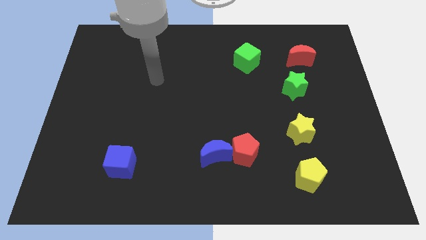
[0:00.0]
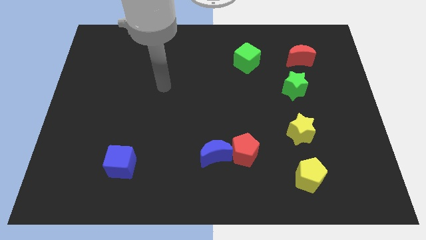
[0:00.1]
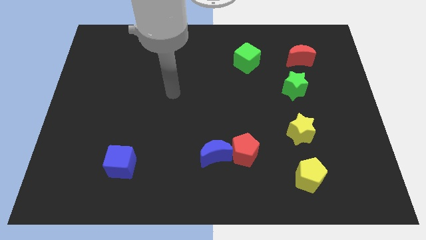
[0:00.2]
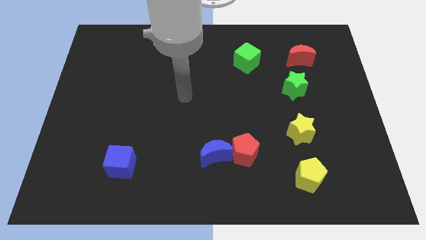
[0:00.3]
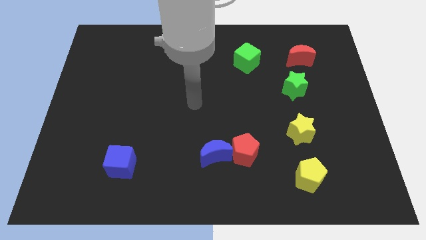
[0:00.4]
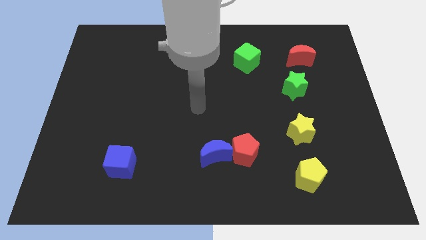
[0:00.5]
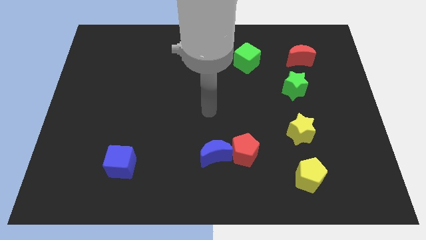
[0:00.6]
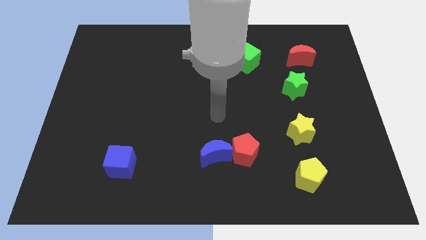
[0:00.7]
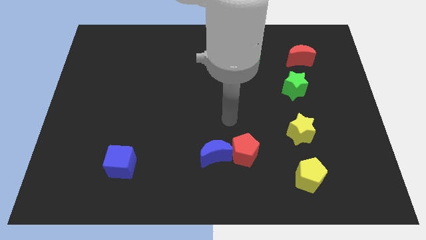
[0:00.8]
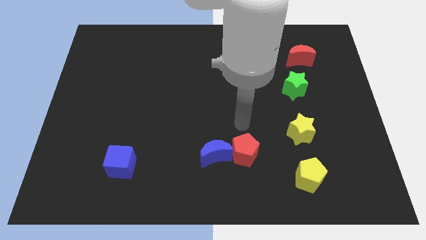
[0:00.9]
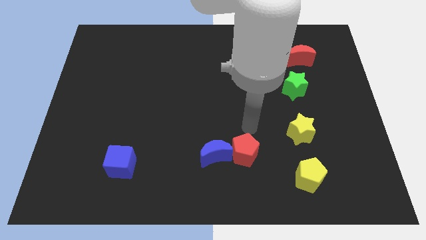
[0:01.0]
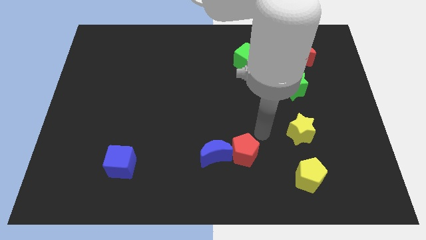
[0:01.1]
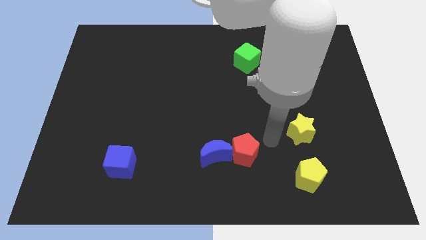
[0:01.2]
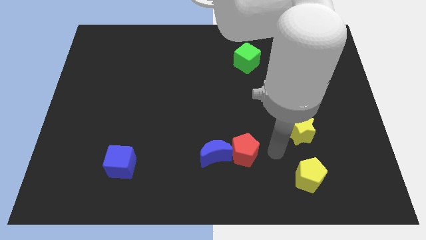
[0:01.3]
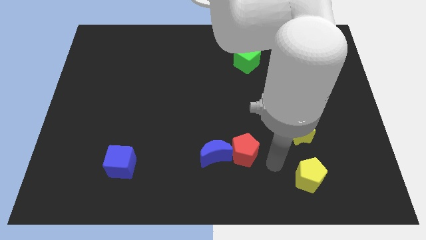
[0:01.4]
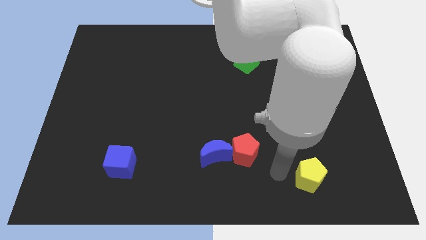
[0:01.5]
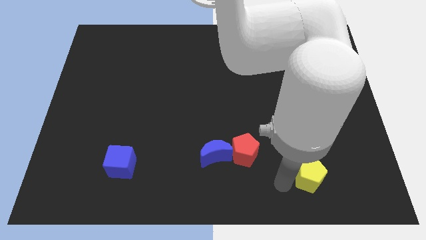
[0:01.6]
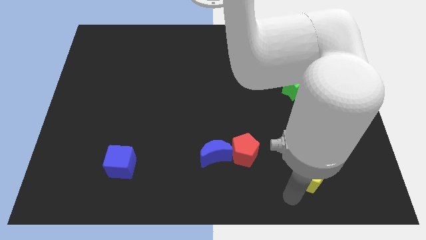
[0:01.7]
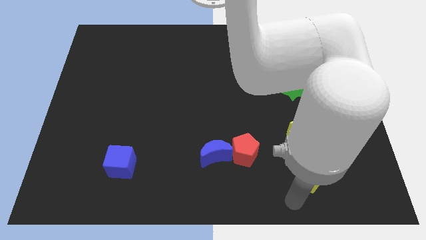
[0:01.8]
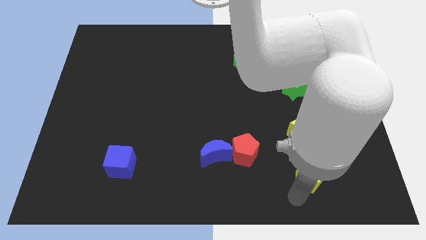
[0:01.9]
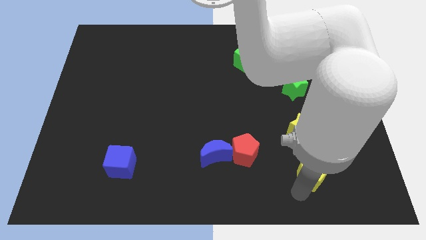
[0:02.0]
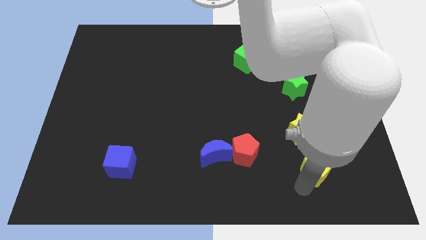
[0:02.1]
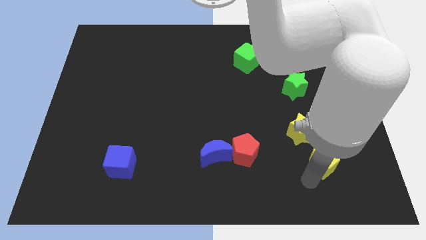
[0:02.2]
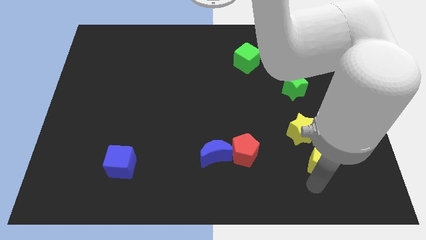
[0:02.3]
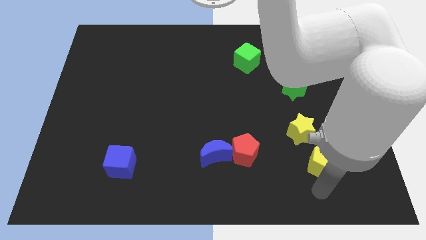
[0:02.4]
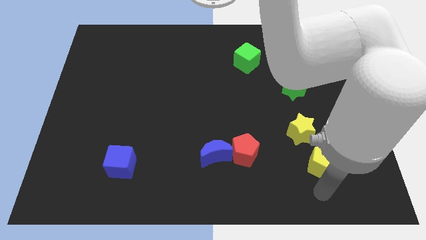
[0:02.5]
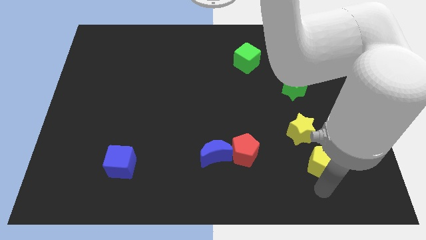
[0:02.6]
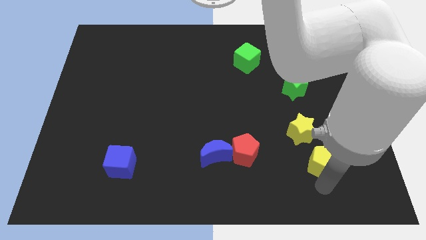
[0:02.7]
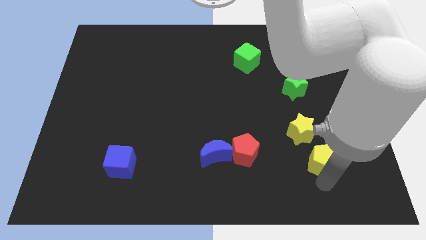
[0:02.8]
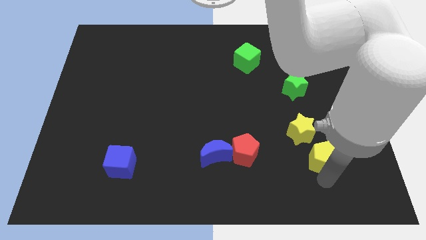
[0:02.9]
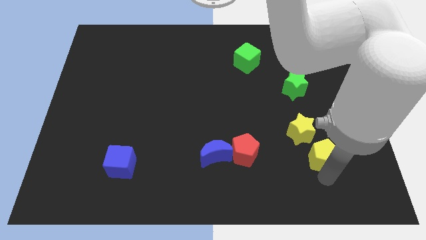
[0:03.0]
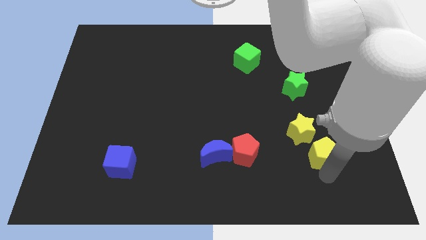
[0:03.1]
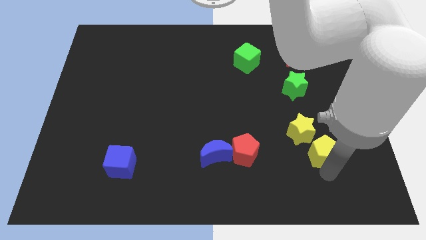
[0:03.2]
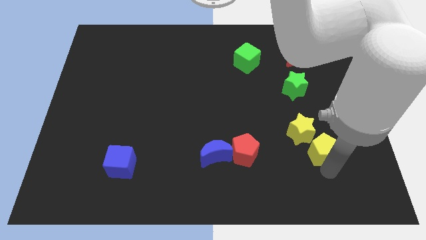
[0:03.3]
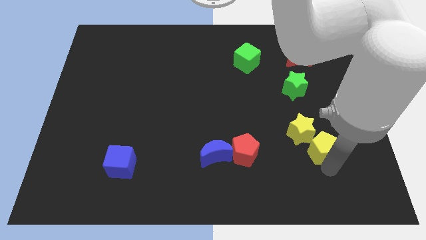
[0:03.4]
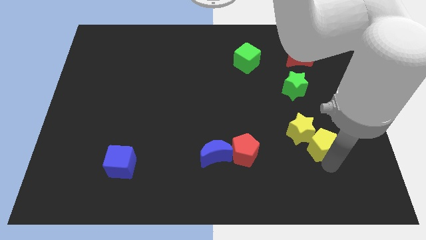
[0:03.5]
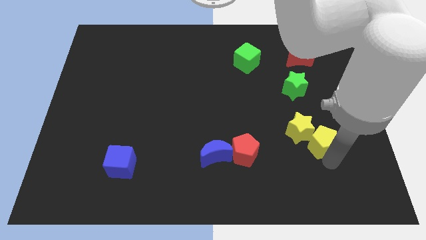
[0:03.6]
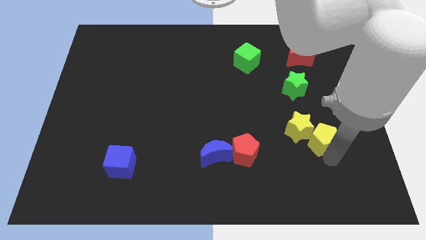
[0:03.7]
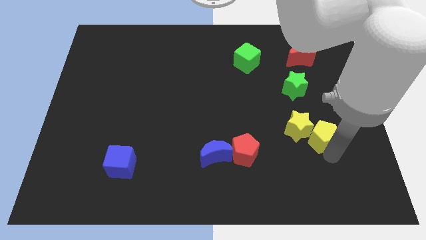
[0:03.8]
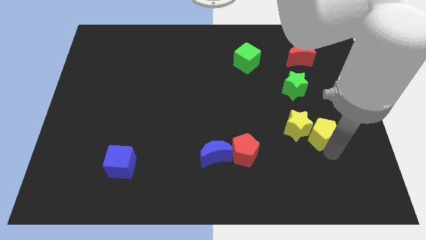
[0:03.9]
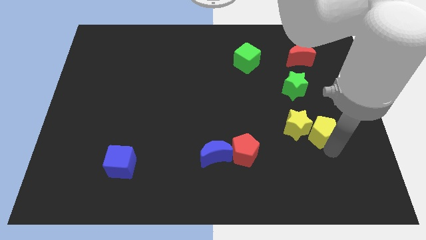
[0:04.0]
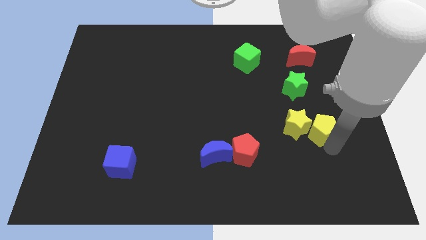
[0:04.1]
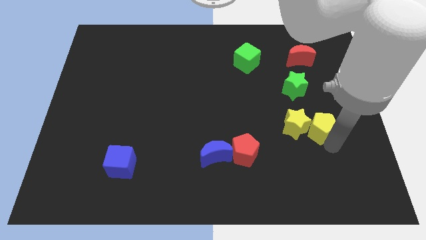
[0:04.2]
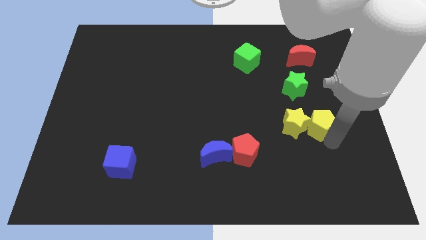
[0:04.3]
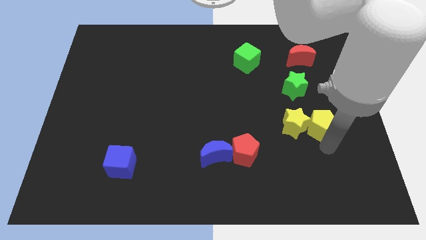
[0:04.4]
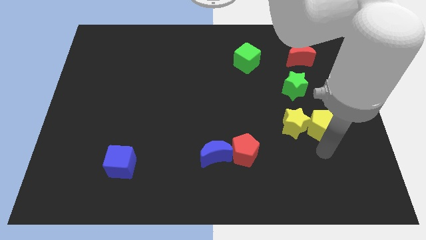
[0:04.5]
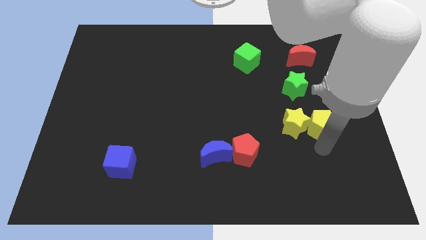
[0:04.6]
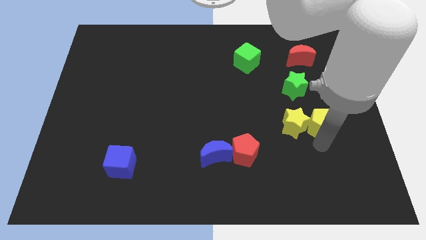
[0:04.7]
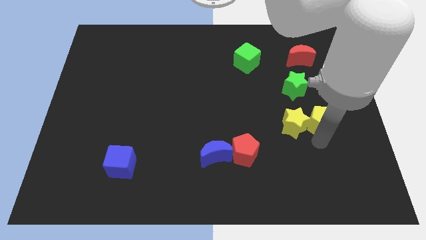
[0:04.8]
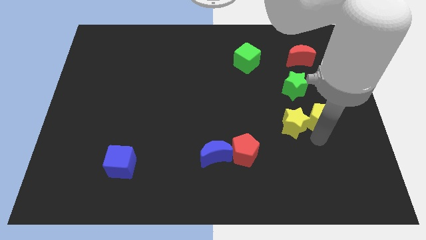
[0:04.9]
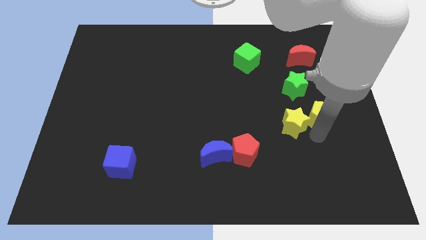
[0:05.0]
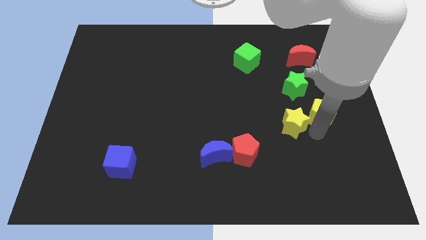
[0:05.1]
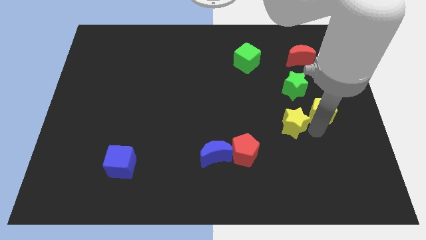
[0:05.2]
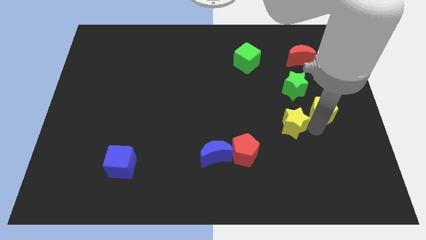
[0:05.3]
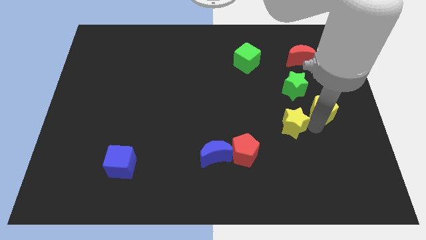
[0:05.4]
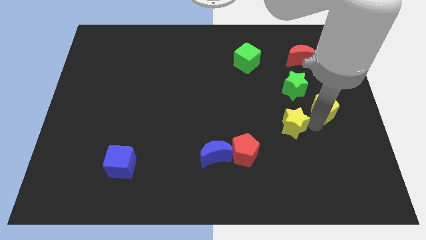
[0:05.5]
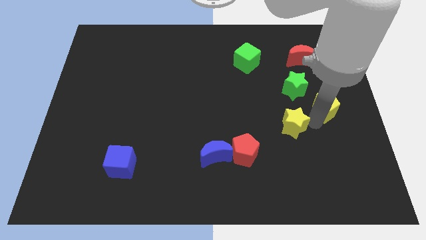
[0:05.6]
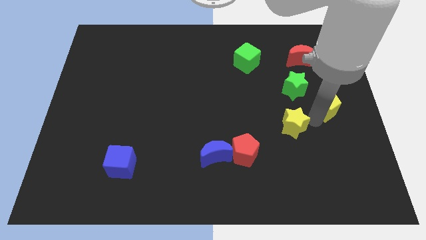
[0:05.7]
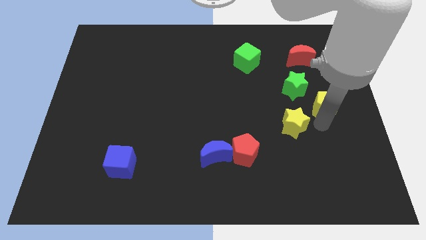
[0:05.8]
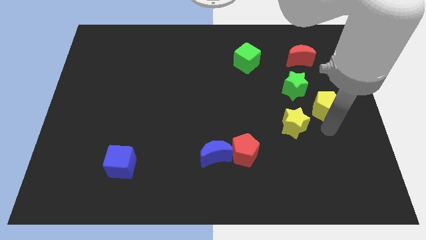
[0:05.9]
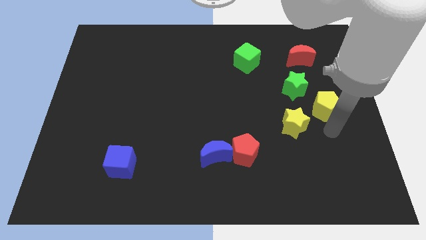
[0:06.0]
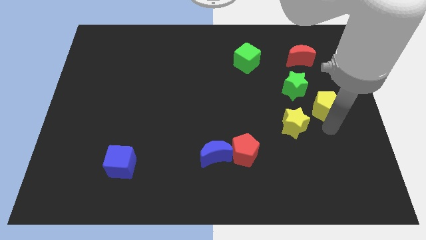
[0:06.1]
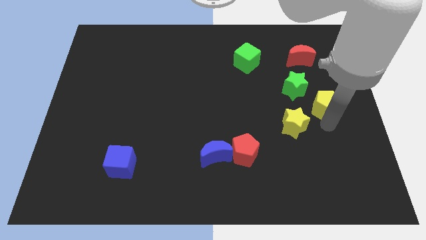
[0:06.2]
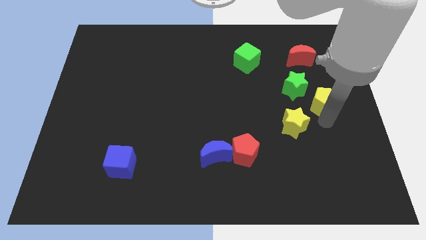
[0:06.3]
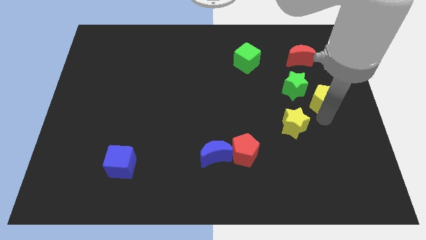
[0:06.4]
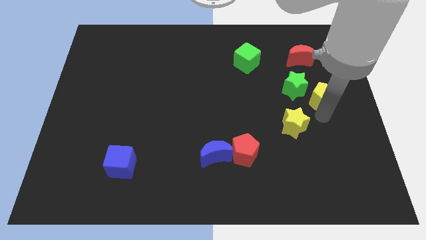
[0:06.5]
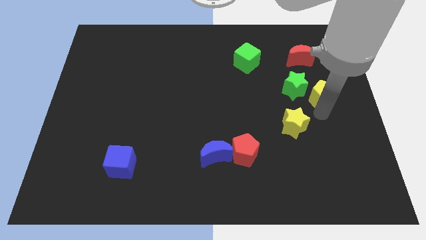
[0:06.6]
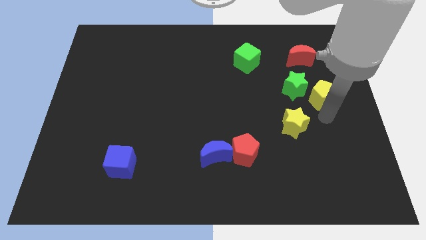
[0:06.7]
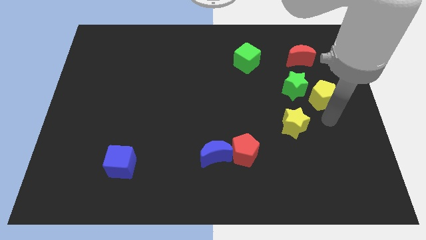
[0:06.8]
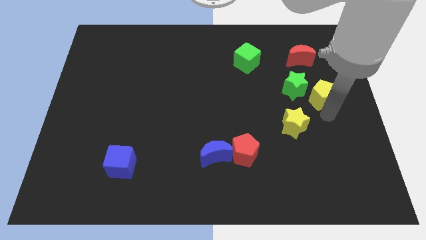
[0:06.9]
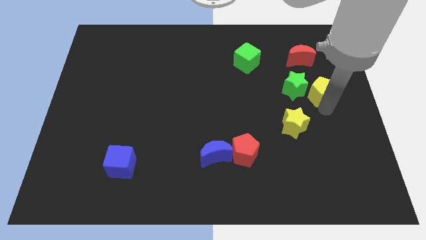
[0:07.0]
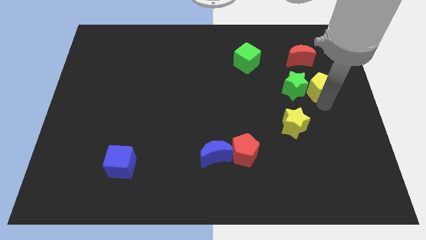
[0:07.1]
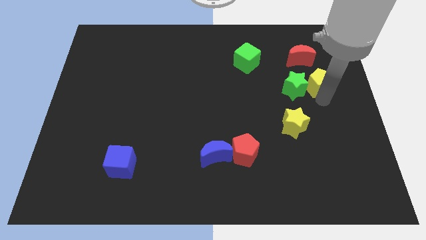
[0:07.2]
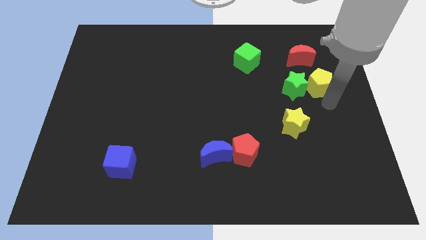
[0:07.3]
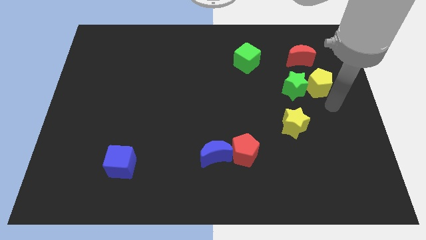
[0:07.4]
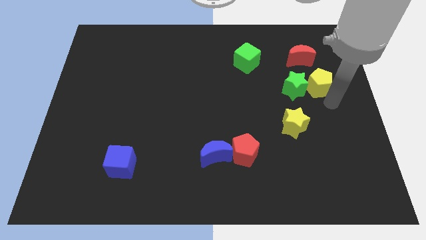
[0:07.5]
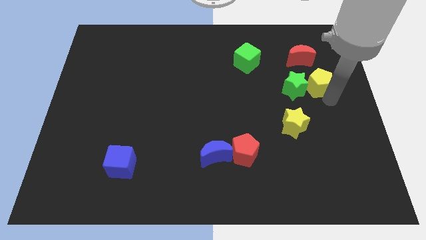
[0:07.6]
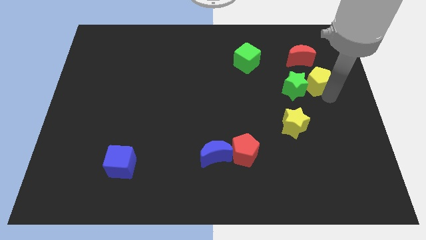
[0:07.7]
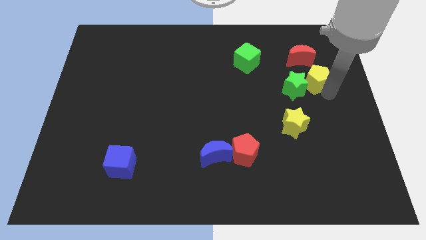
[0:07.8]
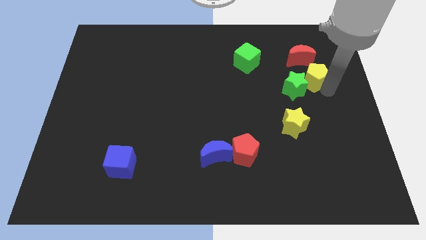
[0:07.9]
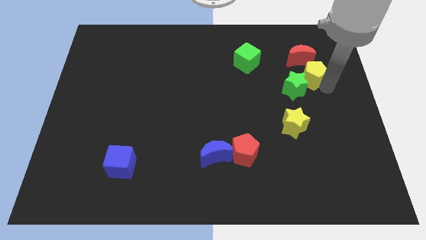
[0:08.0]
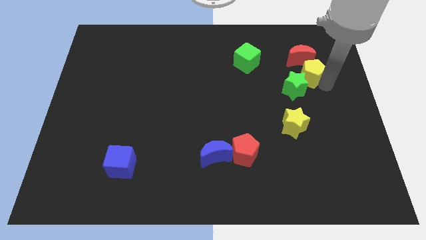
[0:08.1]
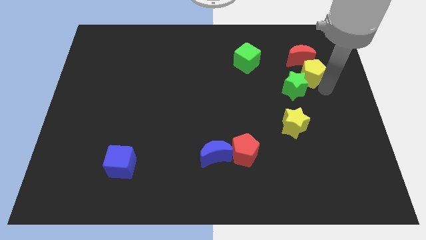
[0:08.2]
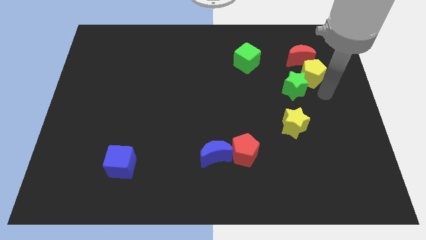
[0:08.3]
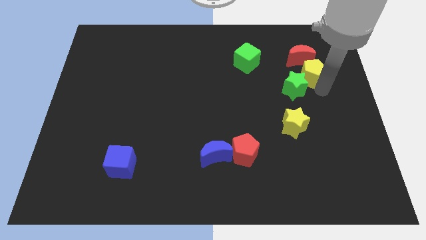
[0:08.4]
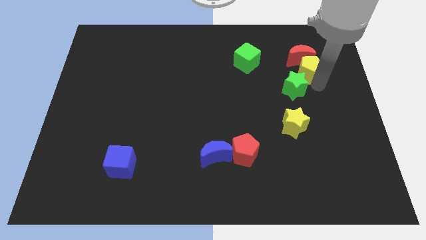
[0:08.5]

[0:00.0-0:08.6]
slide the yellow pentagon next to the red moon
